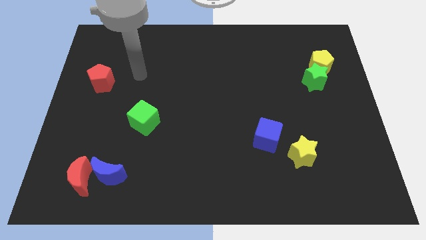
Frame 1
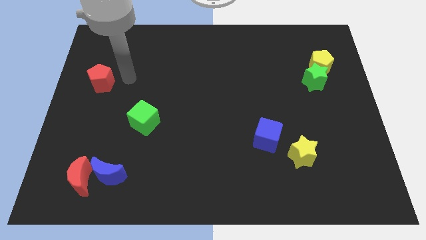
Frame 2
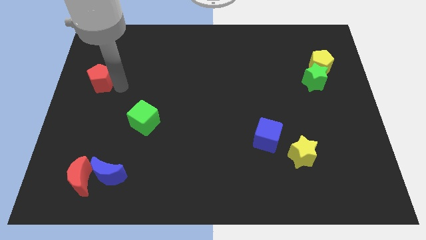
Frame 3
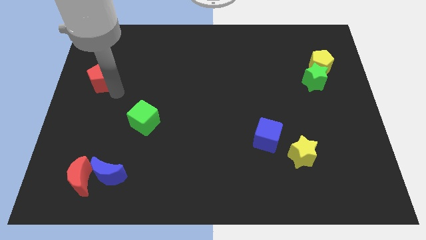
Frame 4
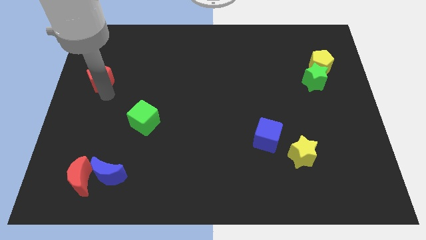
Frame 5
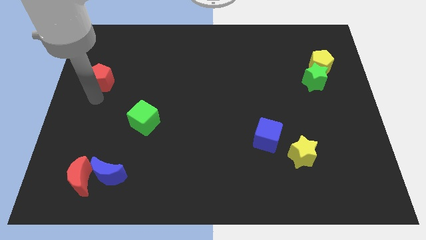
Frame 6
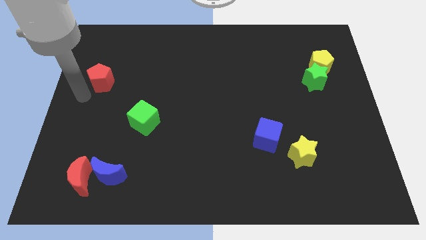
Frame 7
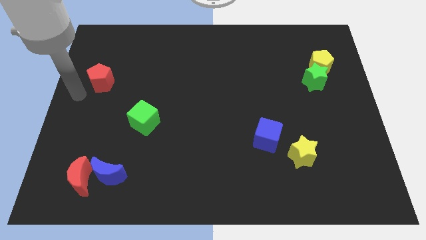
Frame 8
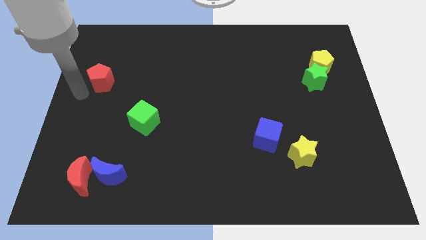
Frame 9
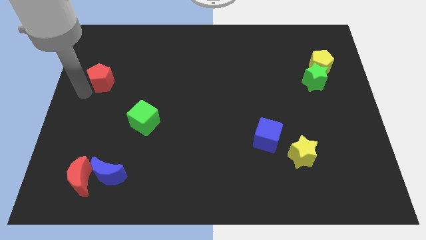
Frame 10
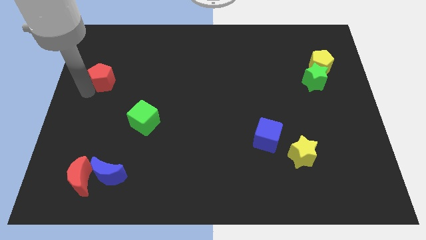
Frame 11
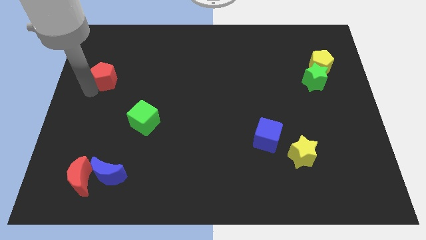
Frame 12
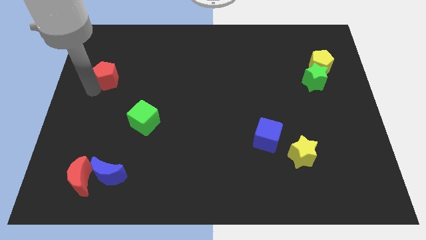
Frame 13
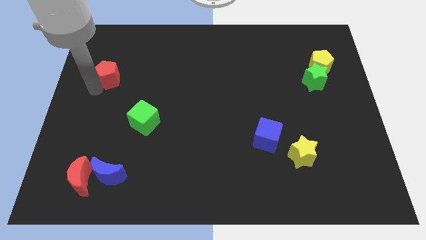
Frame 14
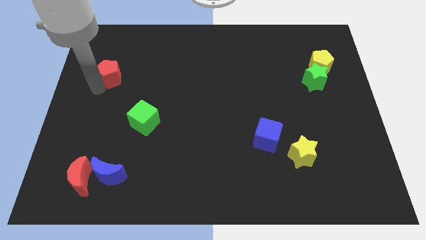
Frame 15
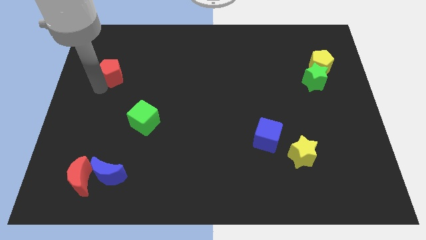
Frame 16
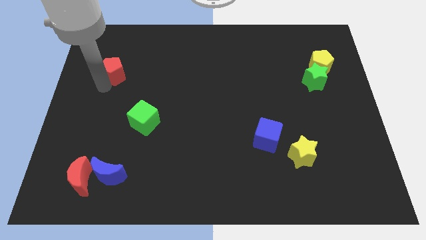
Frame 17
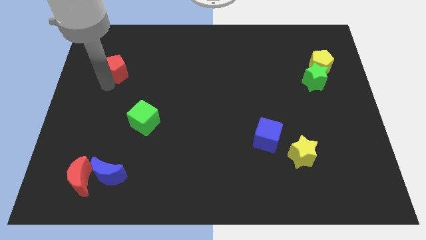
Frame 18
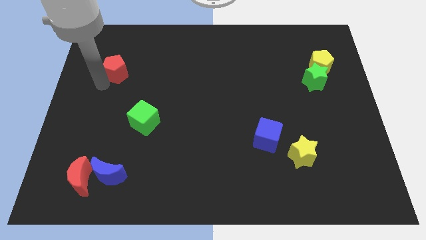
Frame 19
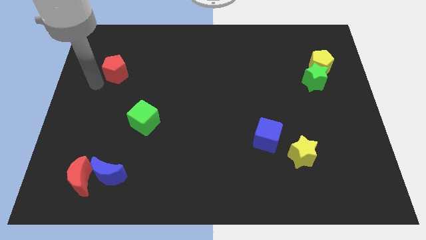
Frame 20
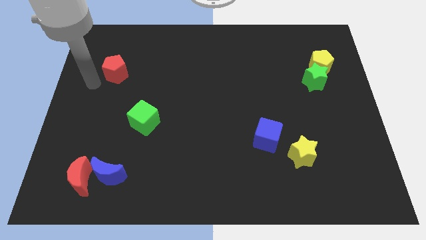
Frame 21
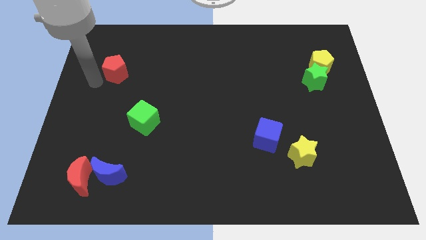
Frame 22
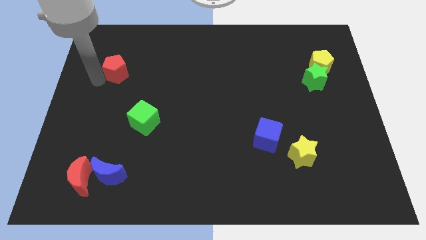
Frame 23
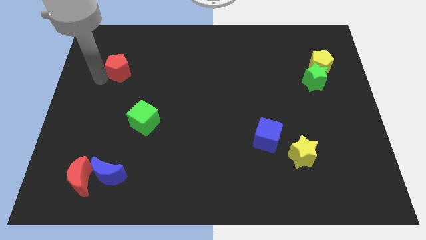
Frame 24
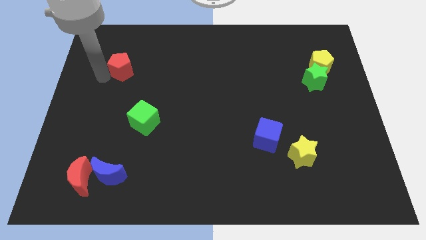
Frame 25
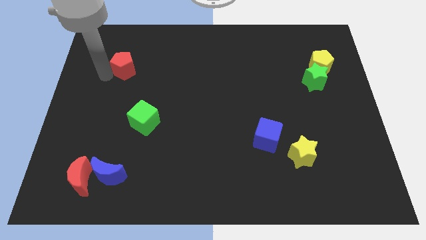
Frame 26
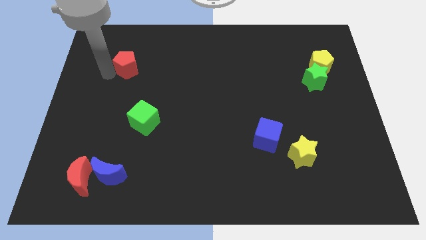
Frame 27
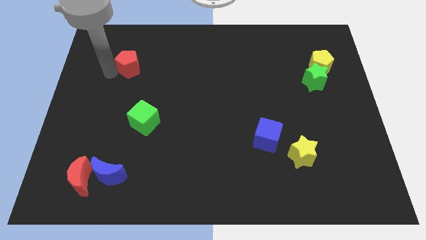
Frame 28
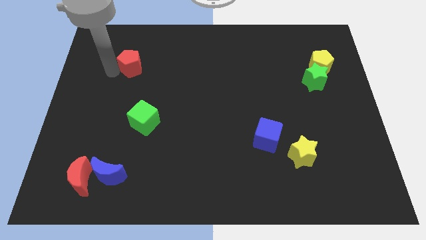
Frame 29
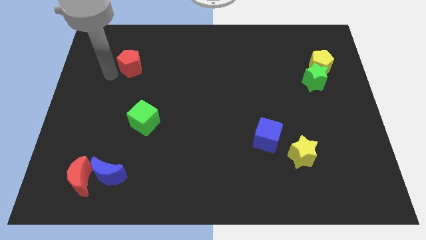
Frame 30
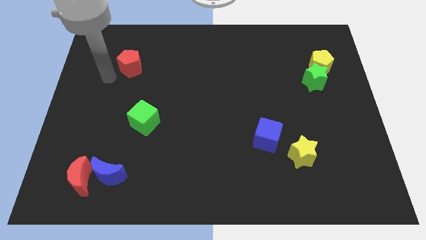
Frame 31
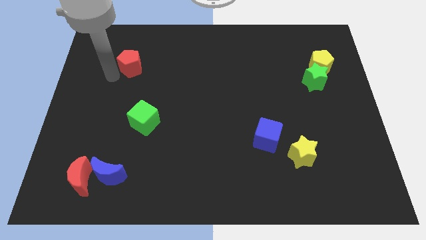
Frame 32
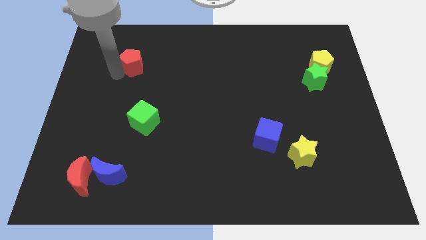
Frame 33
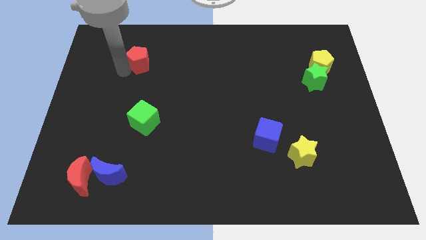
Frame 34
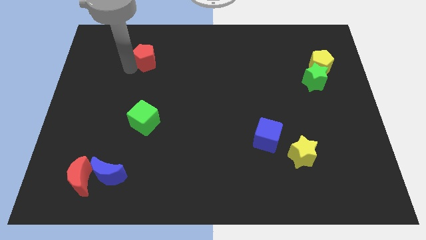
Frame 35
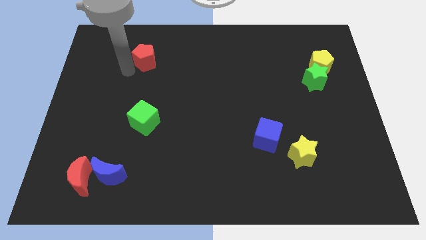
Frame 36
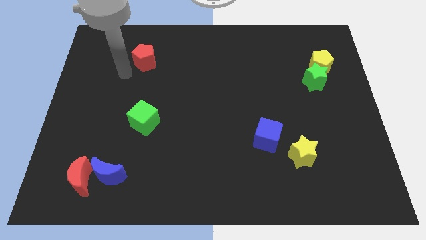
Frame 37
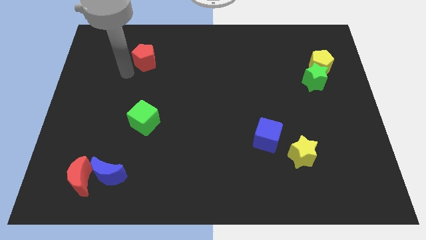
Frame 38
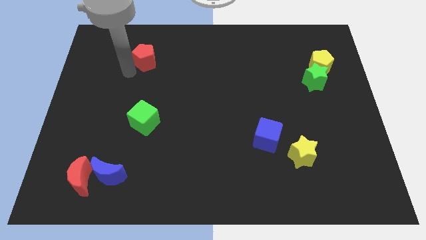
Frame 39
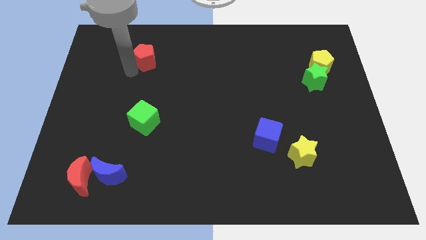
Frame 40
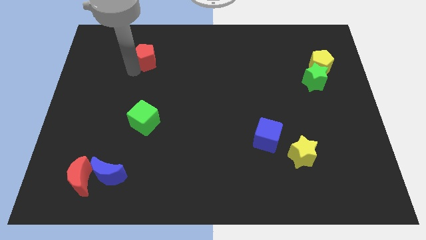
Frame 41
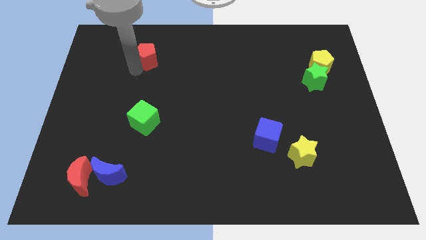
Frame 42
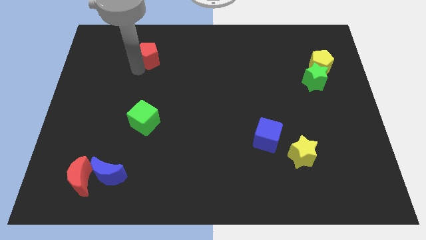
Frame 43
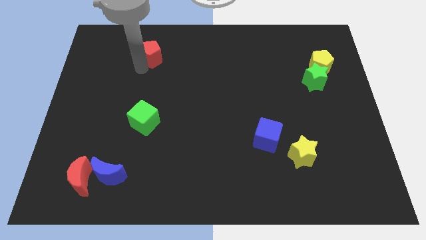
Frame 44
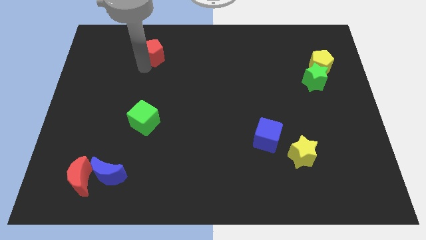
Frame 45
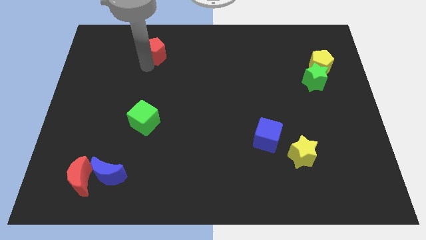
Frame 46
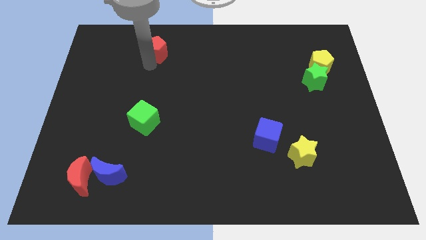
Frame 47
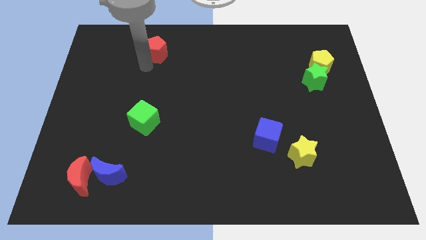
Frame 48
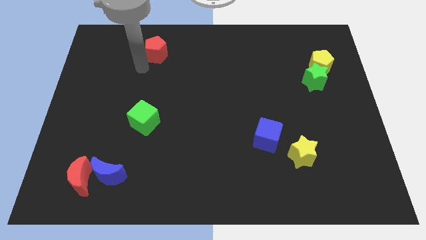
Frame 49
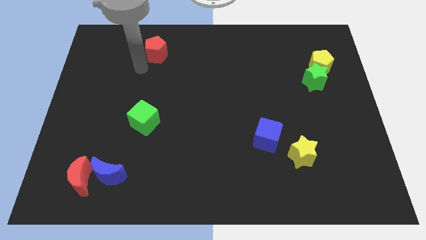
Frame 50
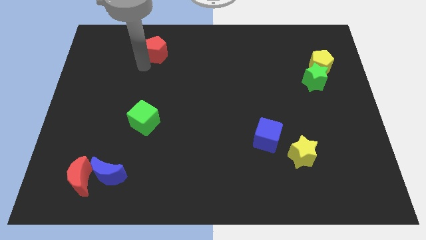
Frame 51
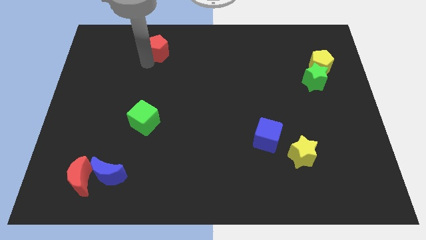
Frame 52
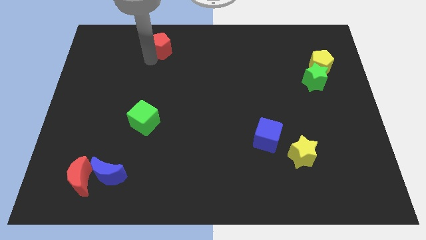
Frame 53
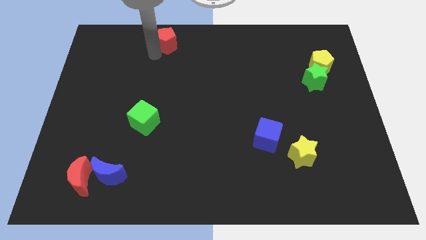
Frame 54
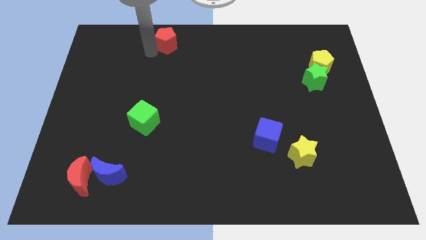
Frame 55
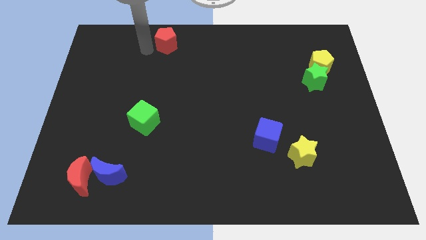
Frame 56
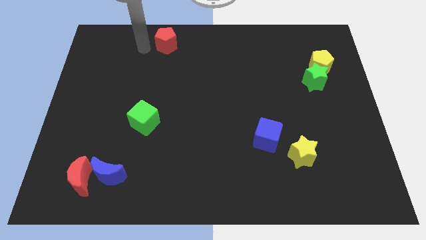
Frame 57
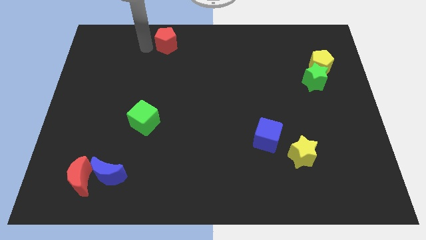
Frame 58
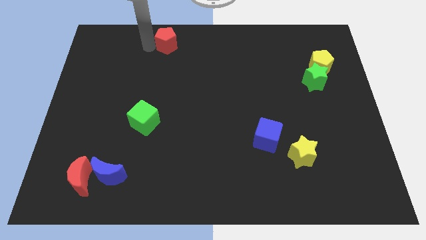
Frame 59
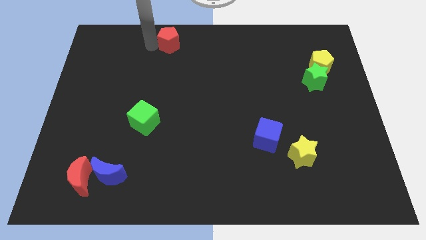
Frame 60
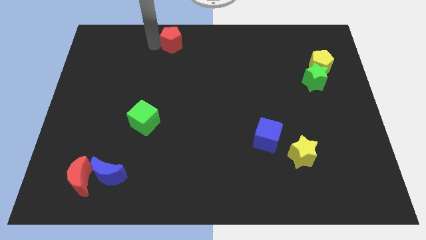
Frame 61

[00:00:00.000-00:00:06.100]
move the red pentagon to the top side
